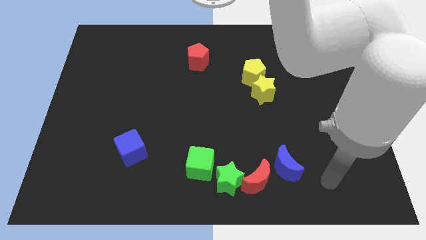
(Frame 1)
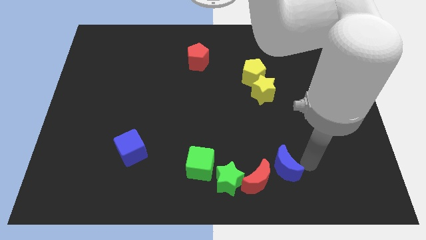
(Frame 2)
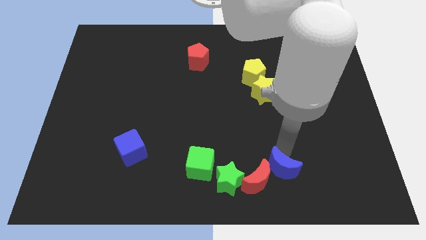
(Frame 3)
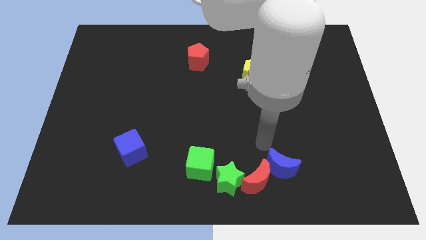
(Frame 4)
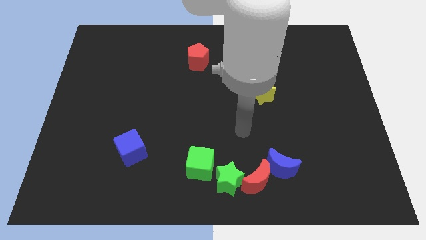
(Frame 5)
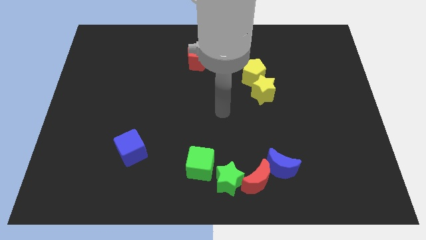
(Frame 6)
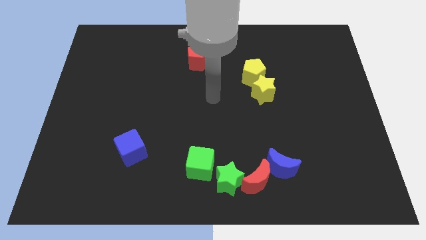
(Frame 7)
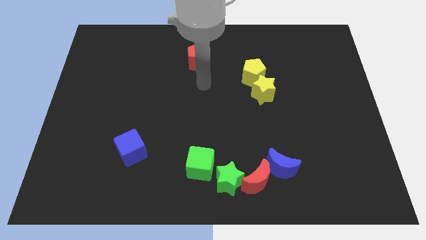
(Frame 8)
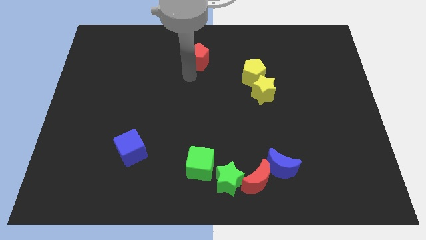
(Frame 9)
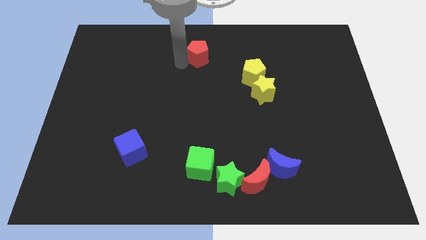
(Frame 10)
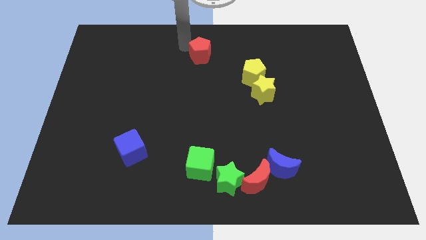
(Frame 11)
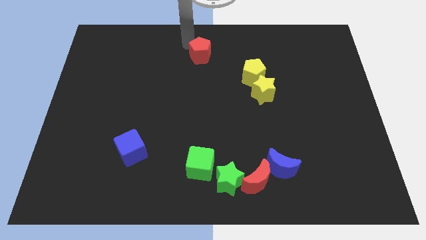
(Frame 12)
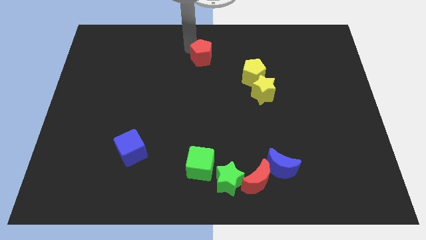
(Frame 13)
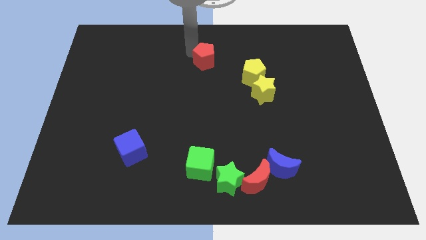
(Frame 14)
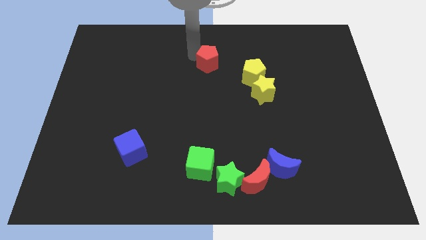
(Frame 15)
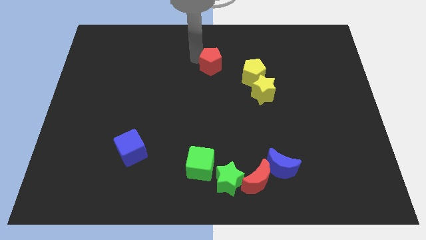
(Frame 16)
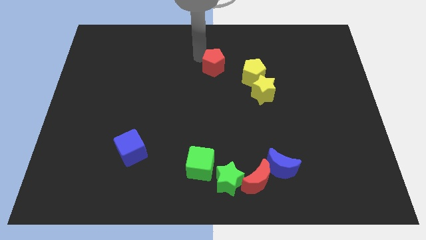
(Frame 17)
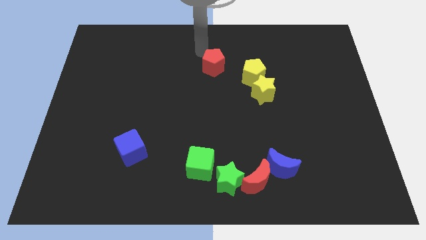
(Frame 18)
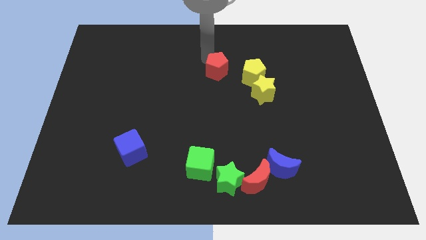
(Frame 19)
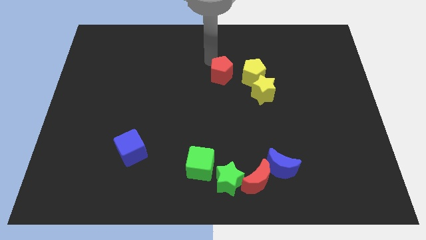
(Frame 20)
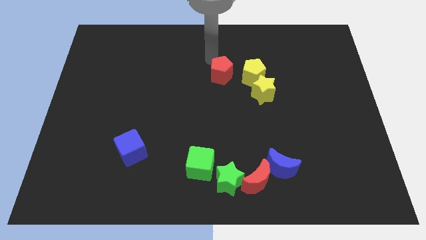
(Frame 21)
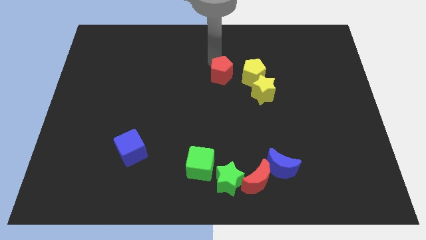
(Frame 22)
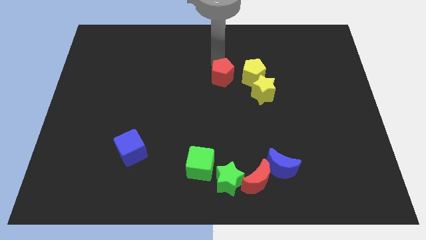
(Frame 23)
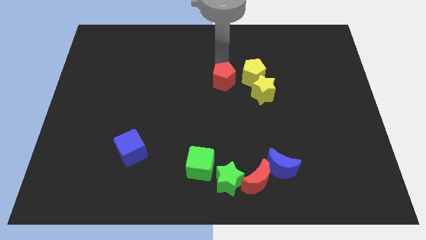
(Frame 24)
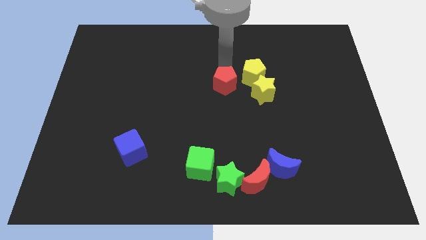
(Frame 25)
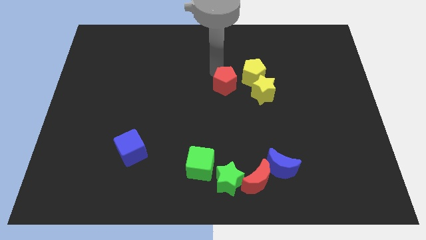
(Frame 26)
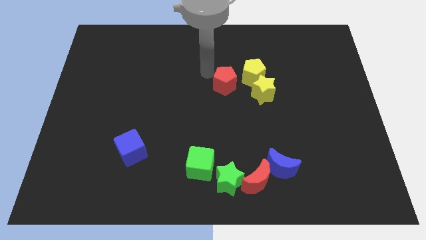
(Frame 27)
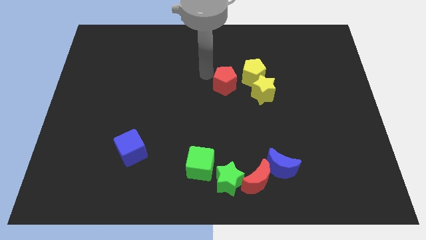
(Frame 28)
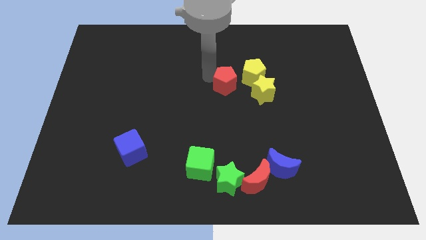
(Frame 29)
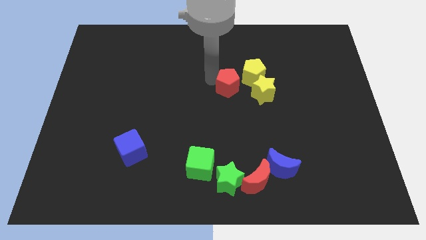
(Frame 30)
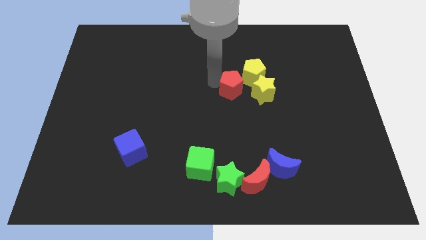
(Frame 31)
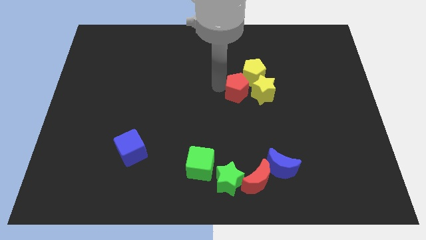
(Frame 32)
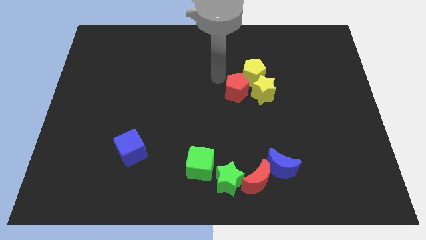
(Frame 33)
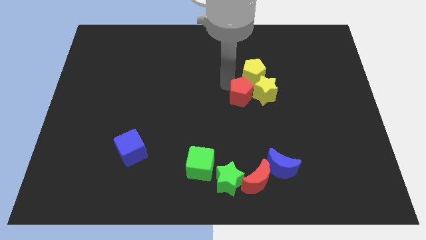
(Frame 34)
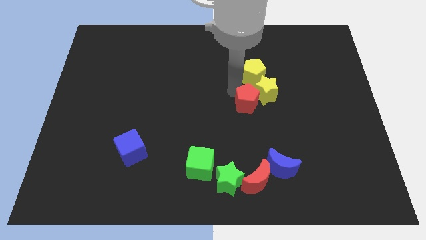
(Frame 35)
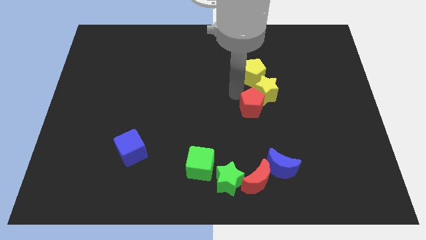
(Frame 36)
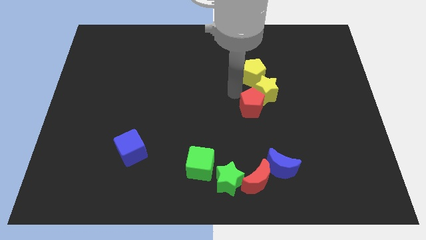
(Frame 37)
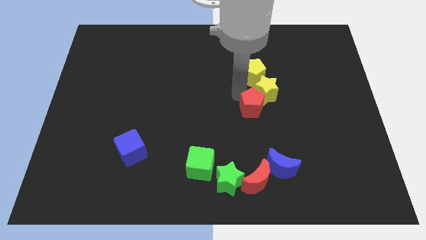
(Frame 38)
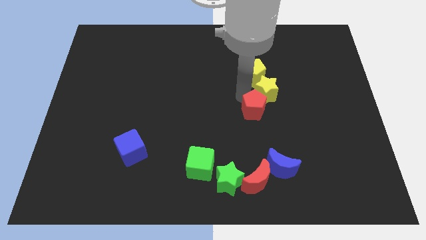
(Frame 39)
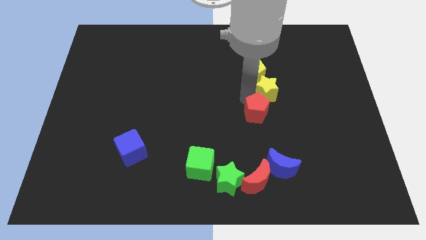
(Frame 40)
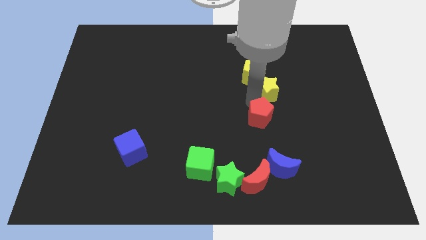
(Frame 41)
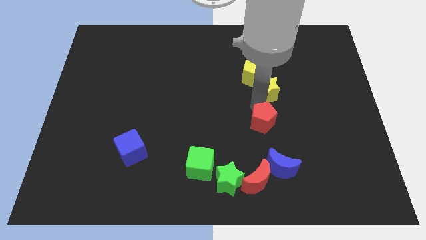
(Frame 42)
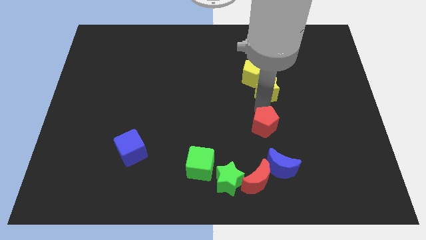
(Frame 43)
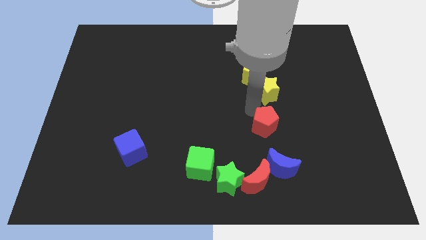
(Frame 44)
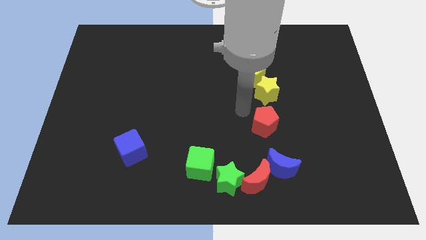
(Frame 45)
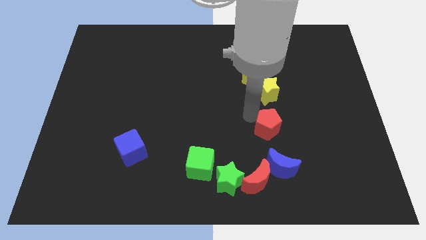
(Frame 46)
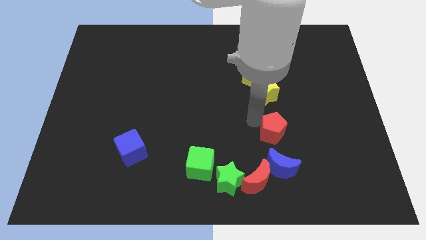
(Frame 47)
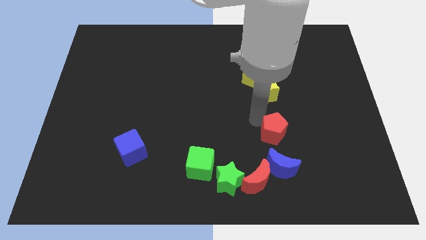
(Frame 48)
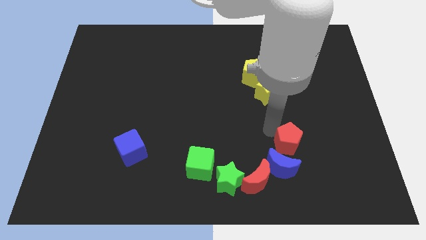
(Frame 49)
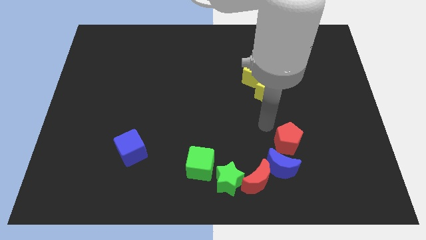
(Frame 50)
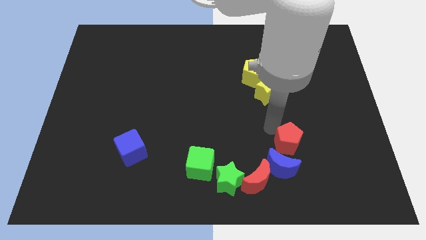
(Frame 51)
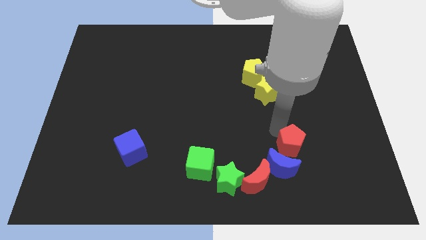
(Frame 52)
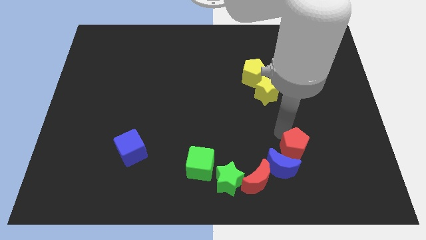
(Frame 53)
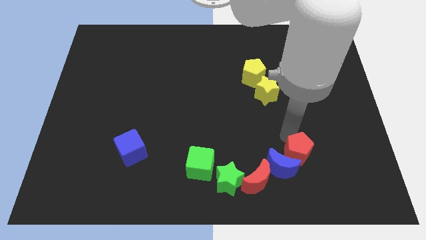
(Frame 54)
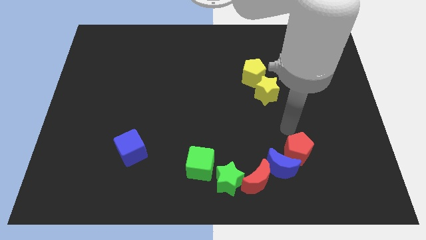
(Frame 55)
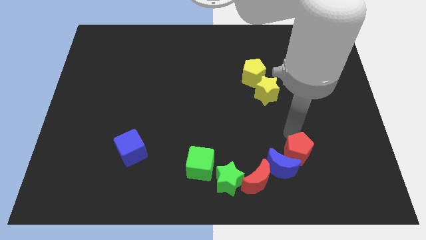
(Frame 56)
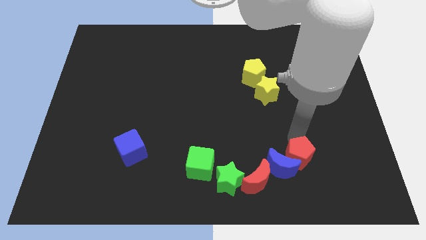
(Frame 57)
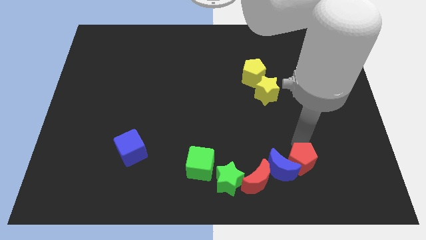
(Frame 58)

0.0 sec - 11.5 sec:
push the red pentagon right of the red moon

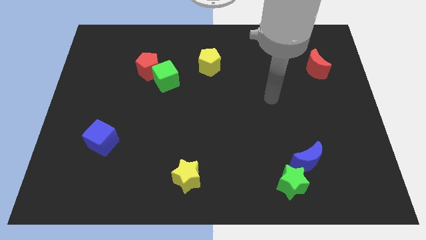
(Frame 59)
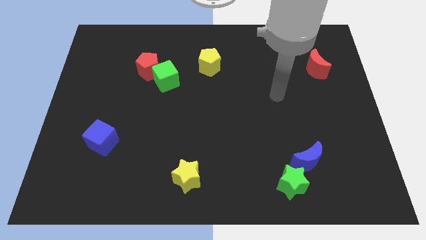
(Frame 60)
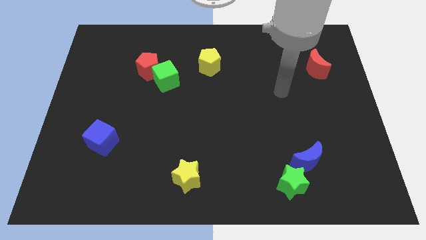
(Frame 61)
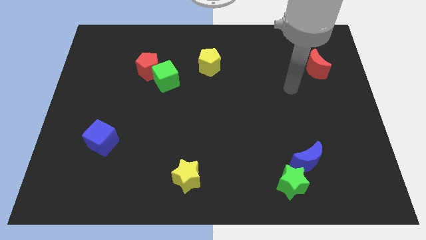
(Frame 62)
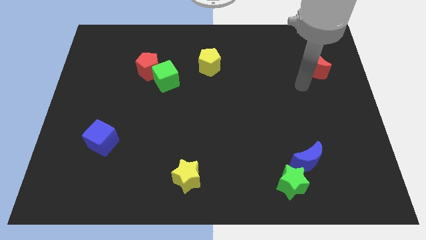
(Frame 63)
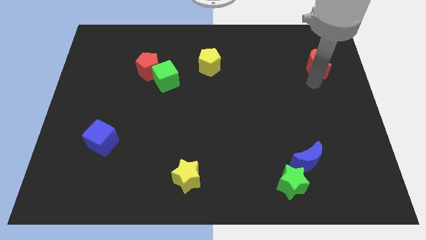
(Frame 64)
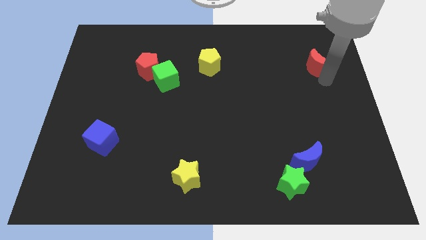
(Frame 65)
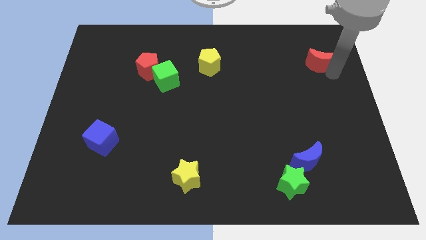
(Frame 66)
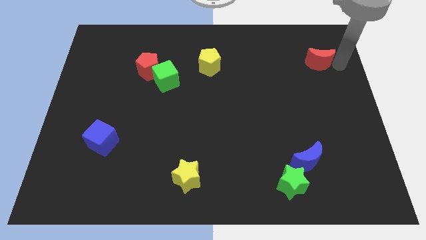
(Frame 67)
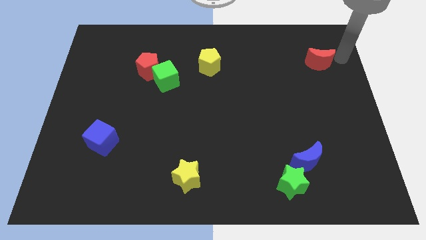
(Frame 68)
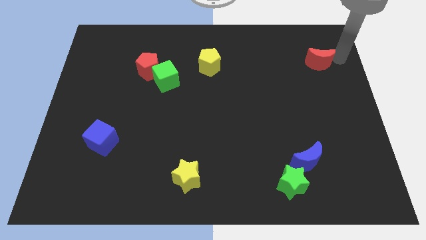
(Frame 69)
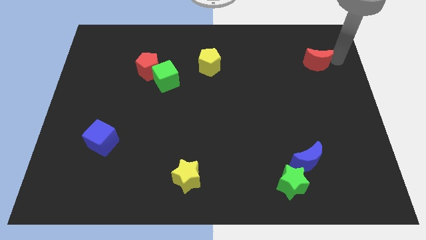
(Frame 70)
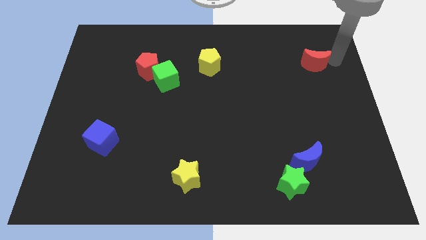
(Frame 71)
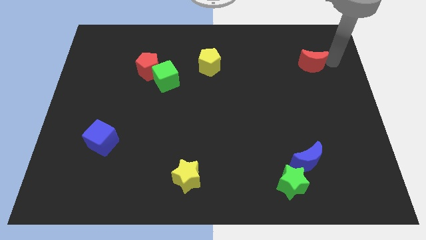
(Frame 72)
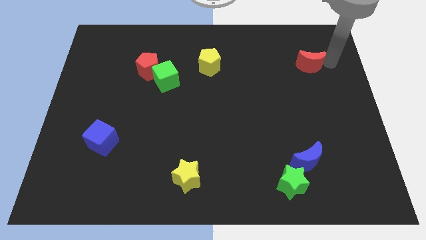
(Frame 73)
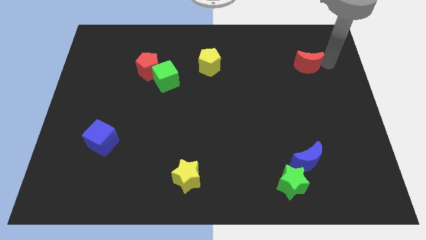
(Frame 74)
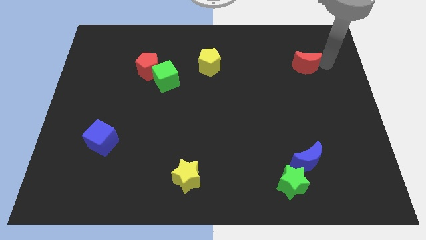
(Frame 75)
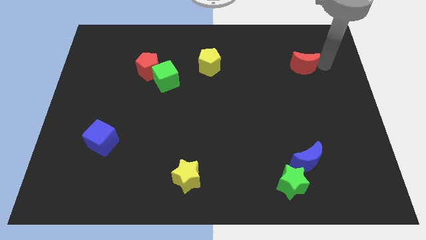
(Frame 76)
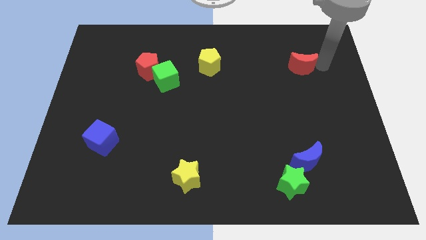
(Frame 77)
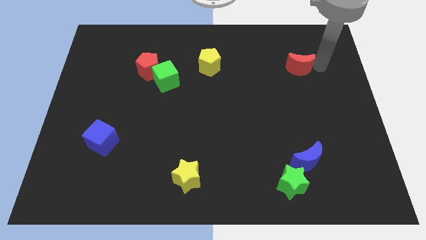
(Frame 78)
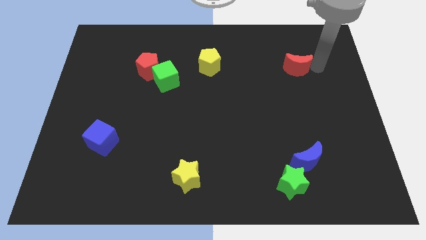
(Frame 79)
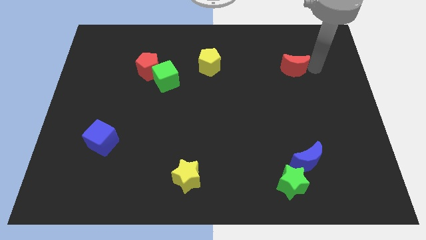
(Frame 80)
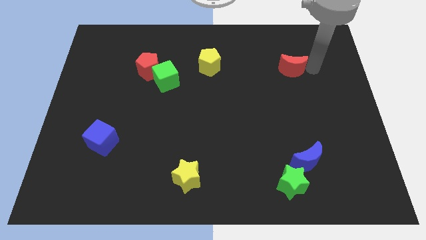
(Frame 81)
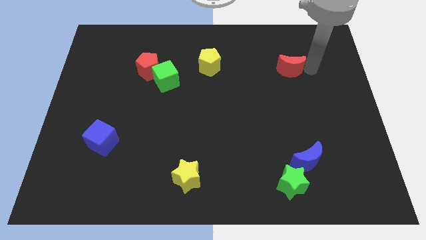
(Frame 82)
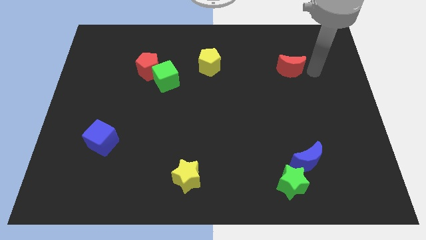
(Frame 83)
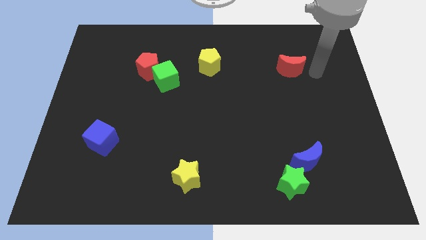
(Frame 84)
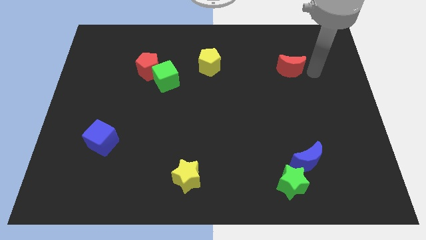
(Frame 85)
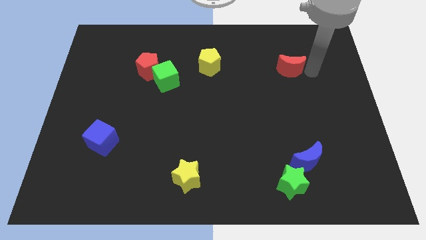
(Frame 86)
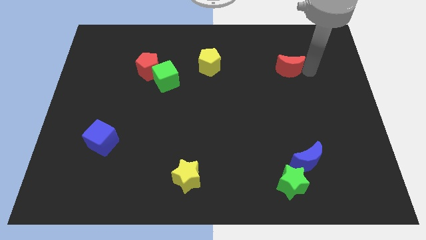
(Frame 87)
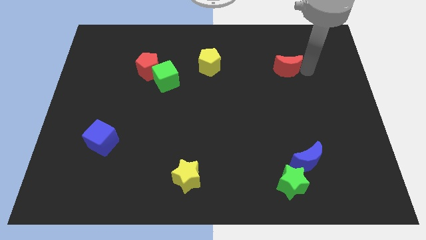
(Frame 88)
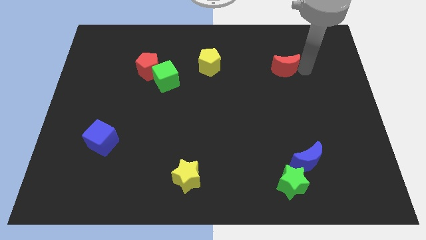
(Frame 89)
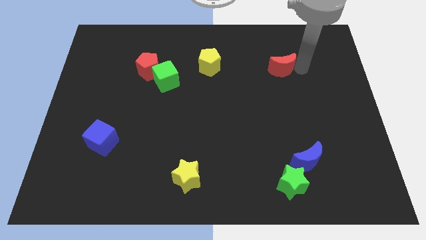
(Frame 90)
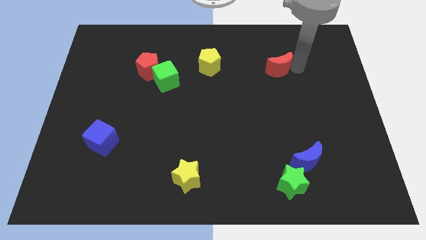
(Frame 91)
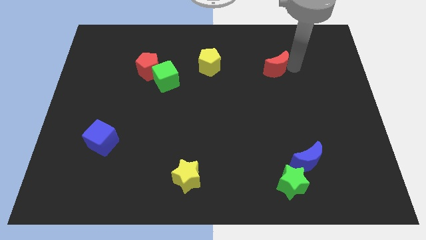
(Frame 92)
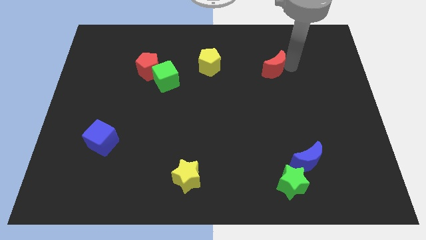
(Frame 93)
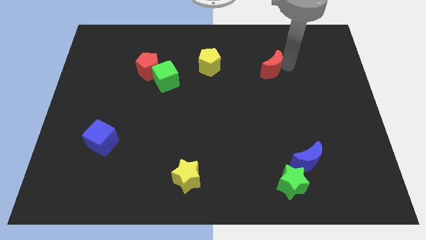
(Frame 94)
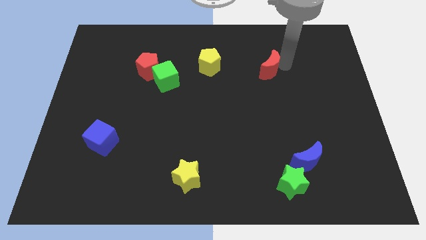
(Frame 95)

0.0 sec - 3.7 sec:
push the red moon to the right of the yellow pentagon
